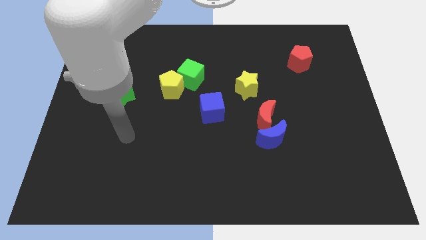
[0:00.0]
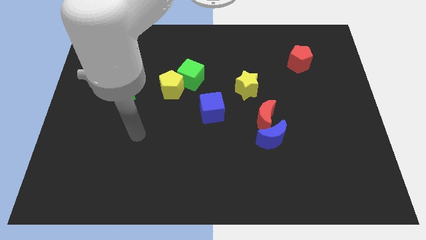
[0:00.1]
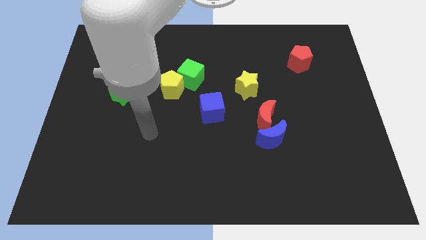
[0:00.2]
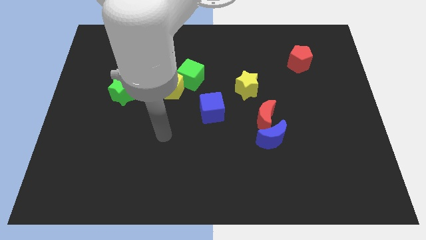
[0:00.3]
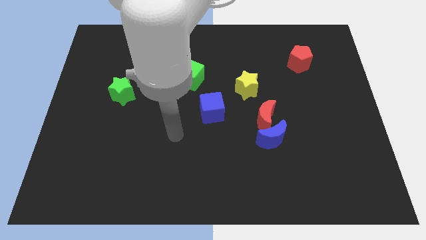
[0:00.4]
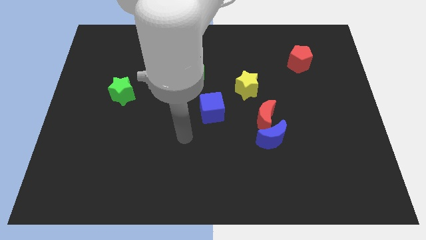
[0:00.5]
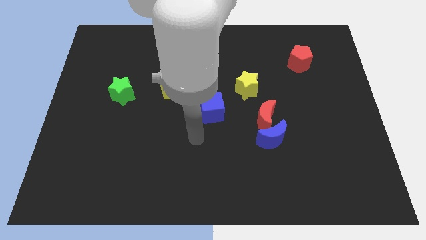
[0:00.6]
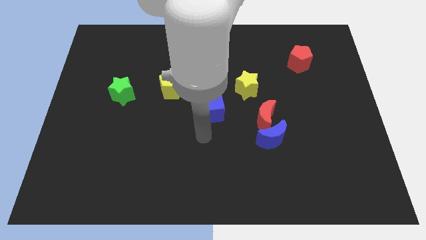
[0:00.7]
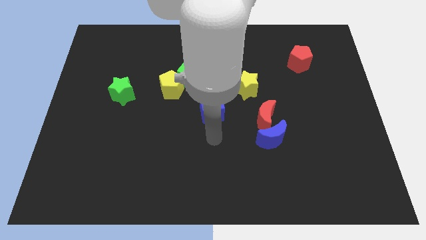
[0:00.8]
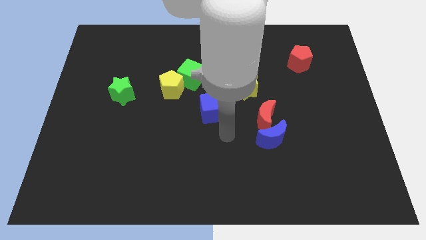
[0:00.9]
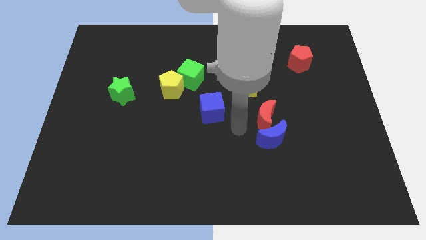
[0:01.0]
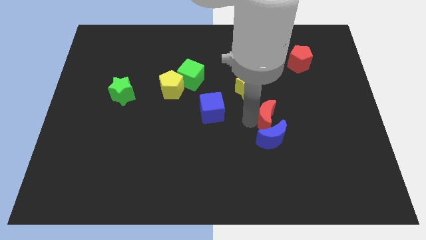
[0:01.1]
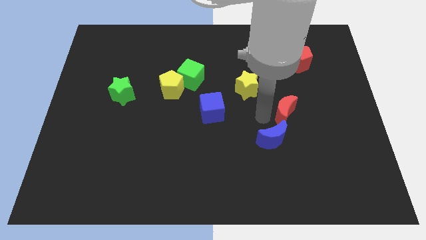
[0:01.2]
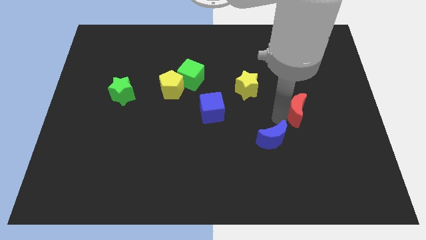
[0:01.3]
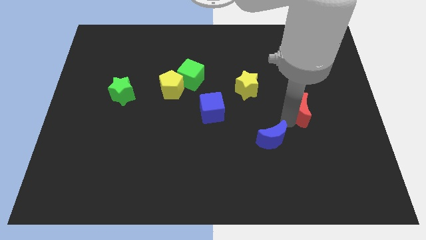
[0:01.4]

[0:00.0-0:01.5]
separate the blue moon from the red moon

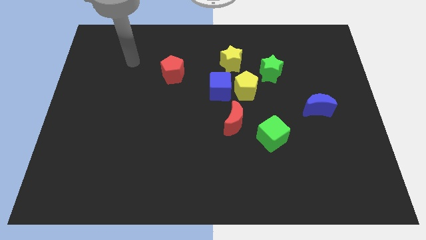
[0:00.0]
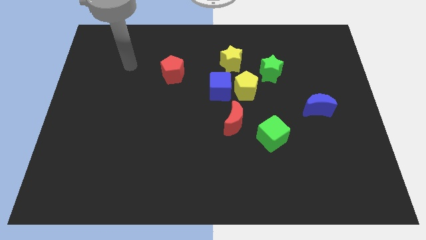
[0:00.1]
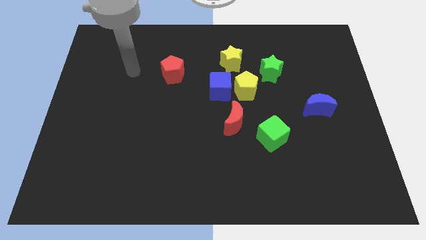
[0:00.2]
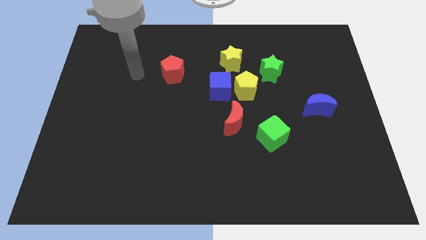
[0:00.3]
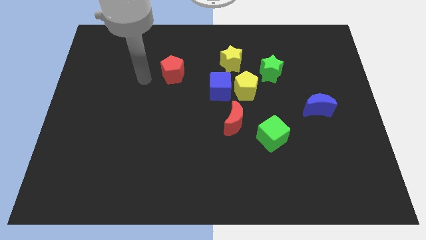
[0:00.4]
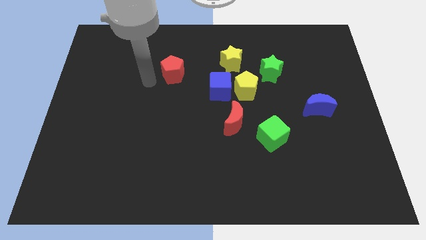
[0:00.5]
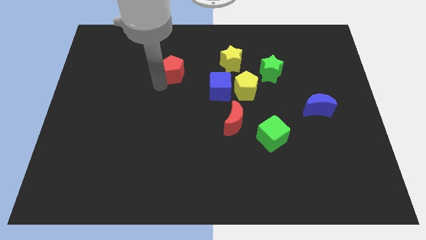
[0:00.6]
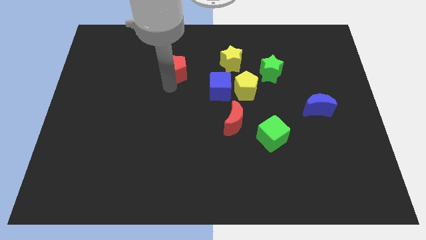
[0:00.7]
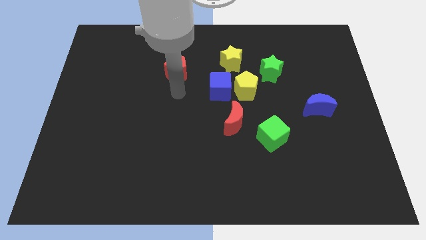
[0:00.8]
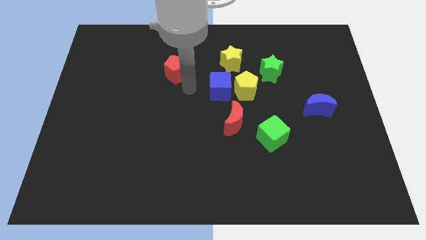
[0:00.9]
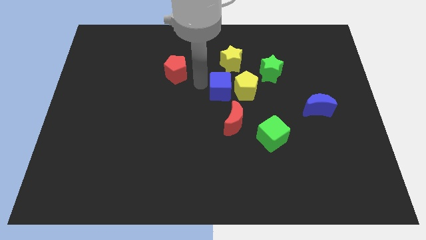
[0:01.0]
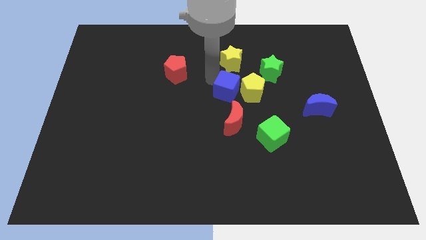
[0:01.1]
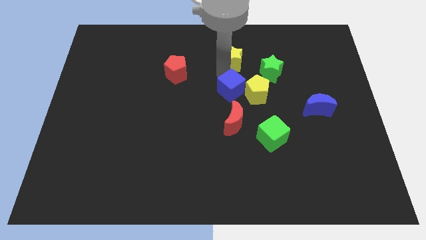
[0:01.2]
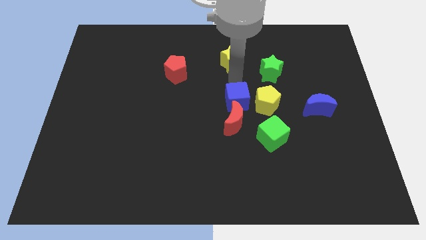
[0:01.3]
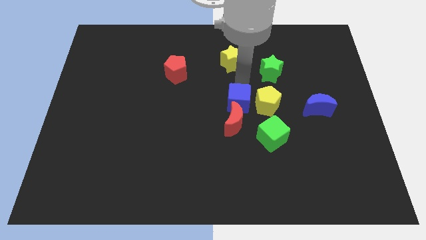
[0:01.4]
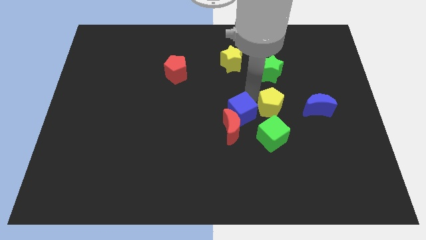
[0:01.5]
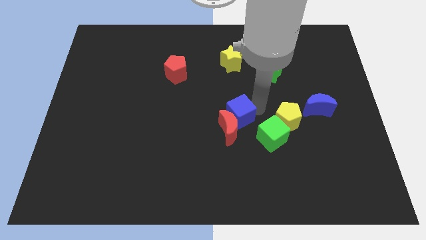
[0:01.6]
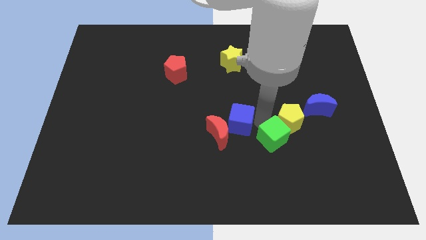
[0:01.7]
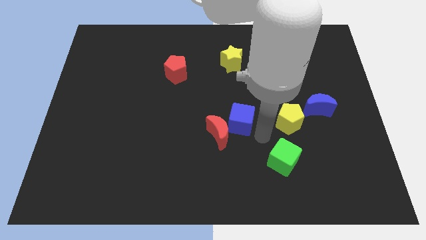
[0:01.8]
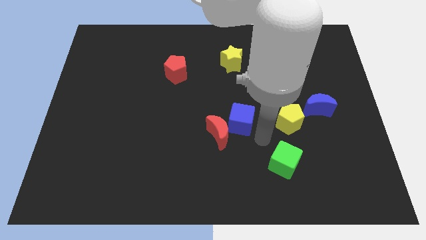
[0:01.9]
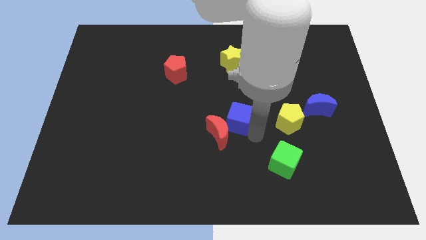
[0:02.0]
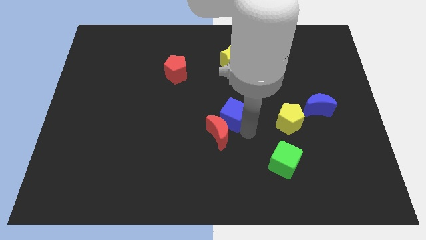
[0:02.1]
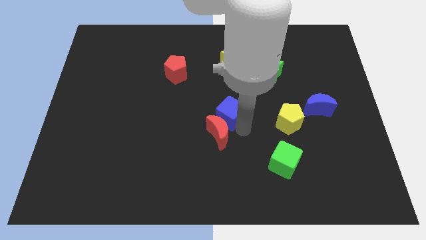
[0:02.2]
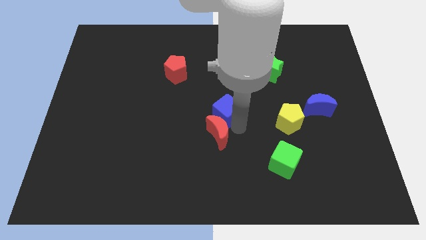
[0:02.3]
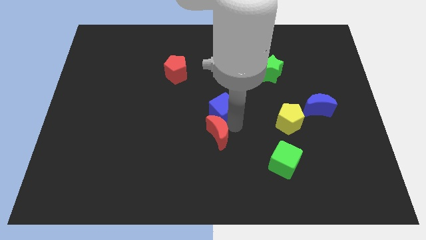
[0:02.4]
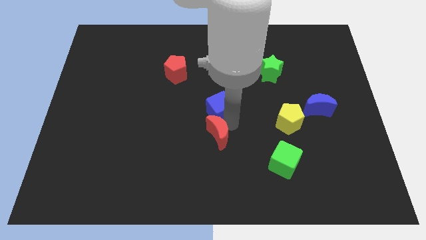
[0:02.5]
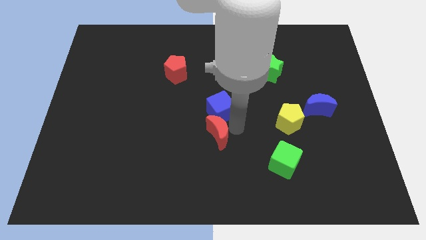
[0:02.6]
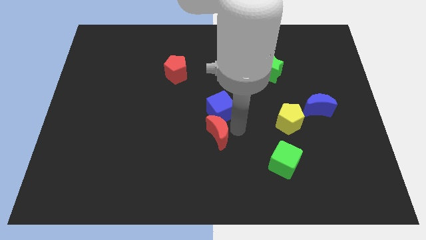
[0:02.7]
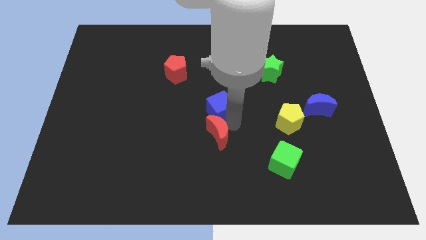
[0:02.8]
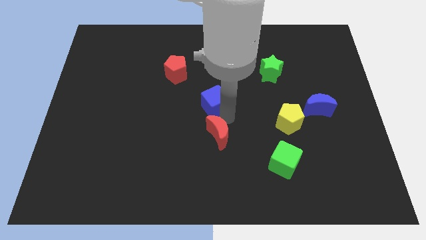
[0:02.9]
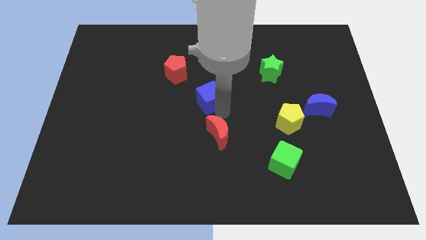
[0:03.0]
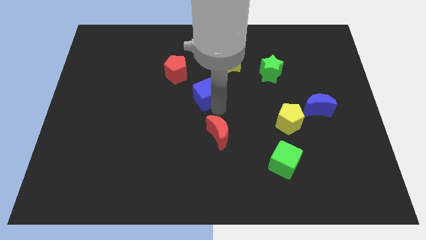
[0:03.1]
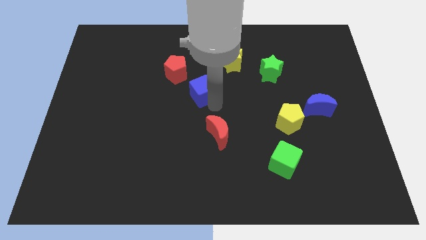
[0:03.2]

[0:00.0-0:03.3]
separate the blue cube from the group of blocks

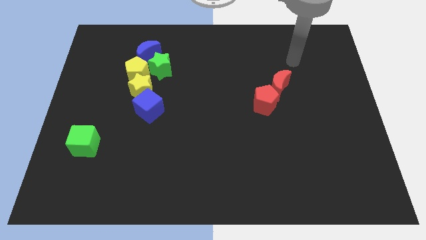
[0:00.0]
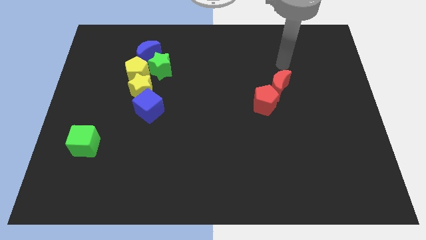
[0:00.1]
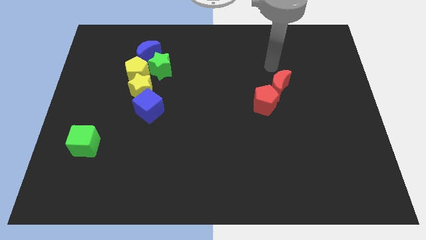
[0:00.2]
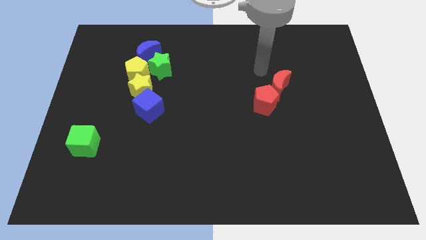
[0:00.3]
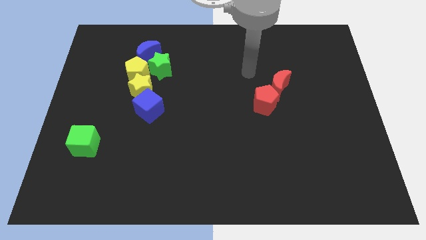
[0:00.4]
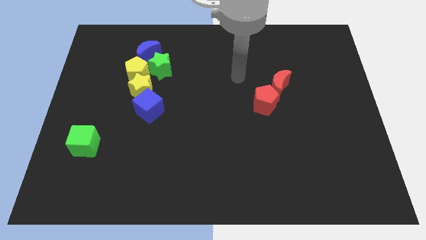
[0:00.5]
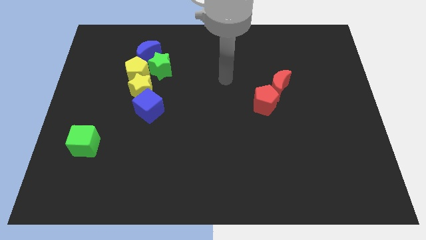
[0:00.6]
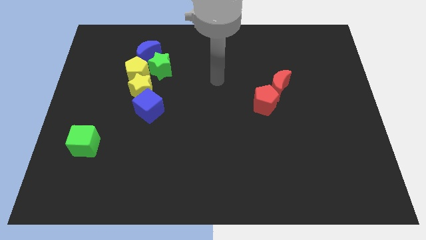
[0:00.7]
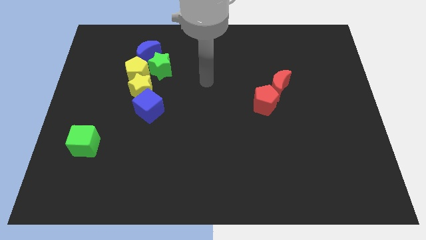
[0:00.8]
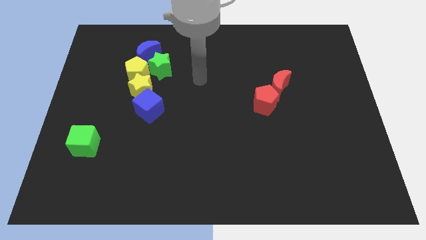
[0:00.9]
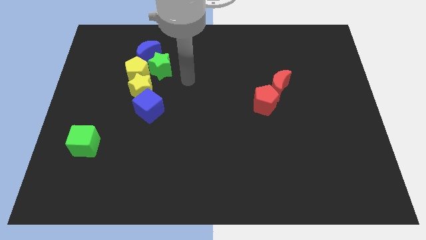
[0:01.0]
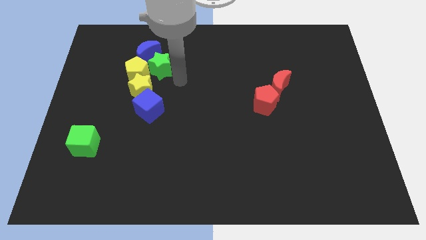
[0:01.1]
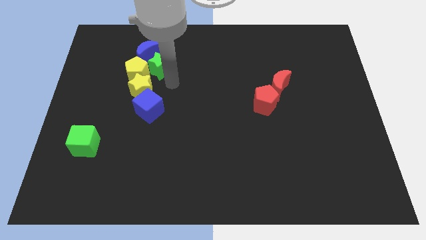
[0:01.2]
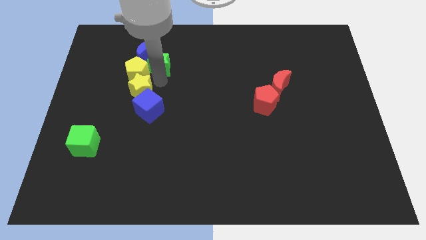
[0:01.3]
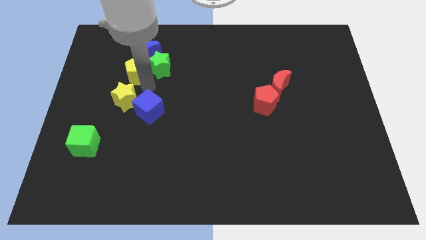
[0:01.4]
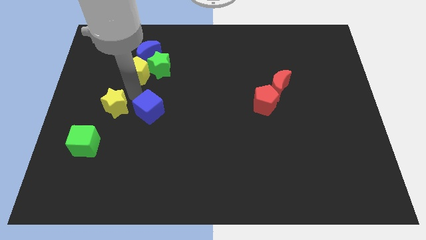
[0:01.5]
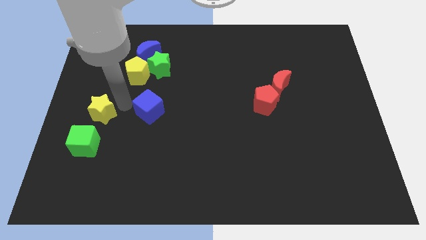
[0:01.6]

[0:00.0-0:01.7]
separate the blue cube from the yellow star

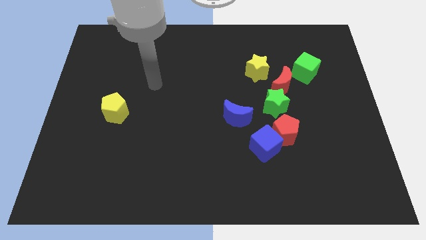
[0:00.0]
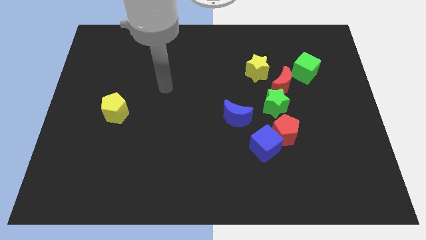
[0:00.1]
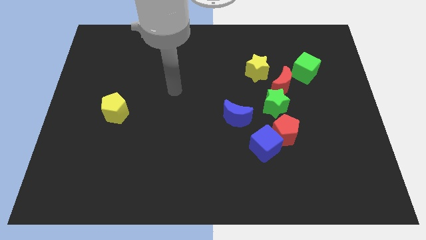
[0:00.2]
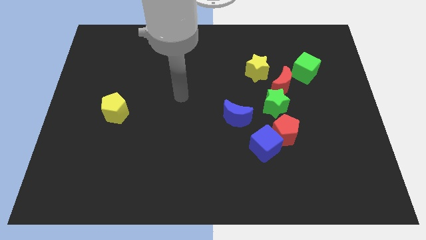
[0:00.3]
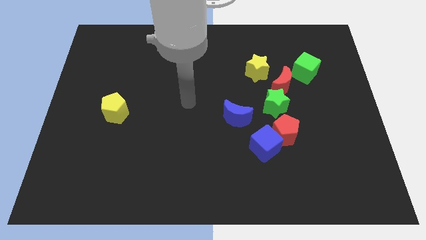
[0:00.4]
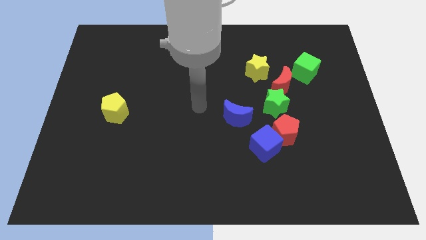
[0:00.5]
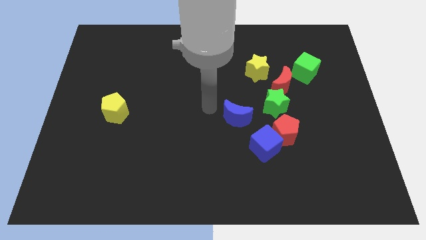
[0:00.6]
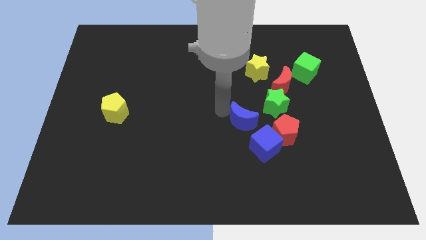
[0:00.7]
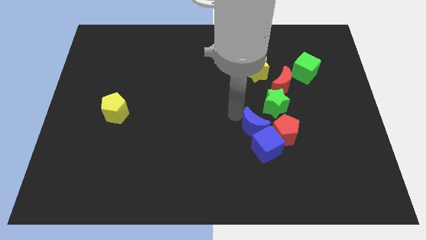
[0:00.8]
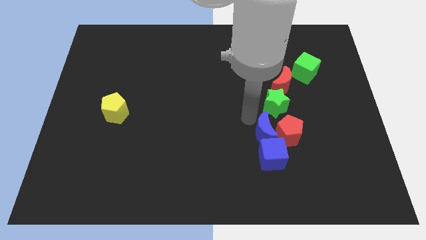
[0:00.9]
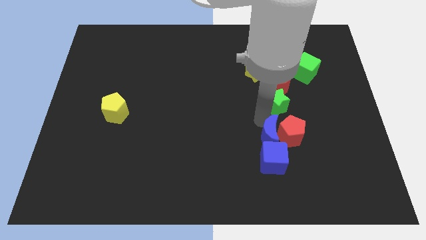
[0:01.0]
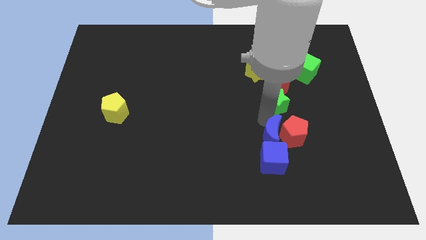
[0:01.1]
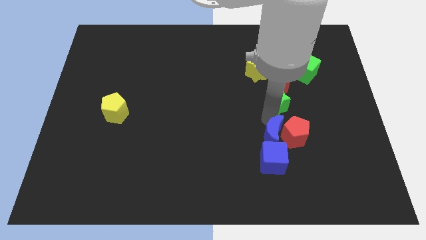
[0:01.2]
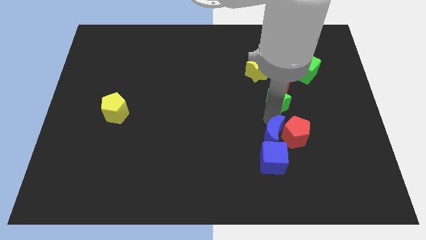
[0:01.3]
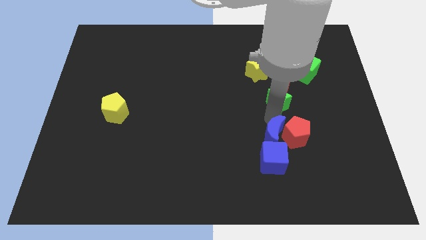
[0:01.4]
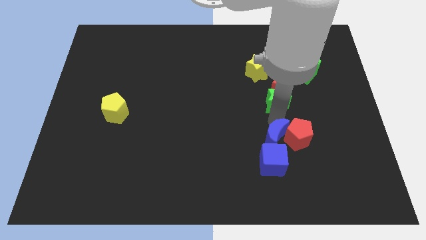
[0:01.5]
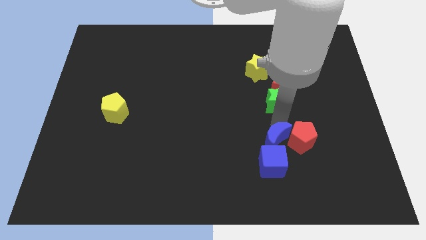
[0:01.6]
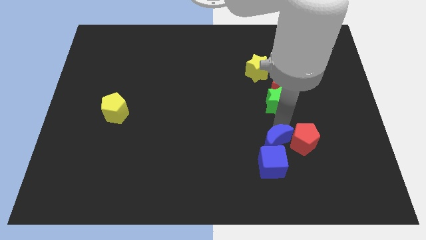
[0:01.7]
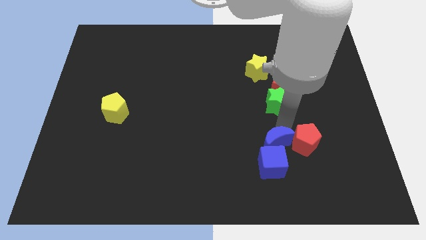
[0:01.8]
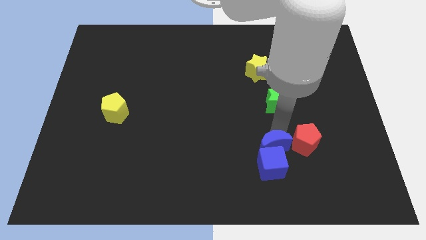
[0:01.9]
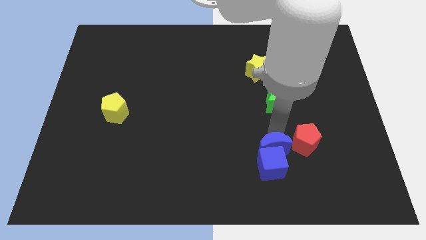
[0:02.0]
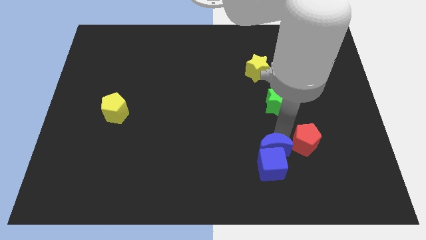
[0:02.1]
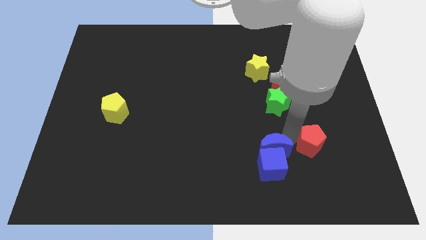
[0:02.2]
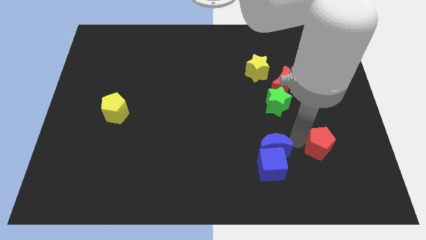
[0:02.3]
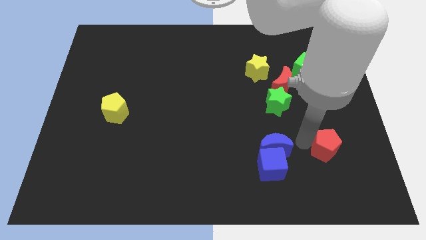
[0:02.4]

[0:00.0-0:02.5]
move the red pentagon away from the blue cube and green star

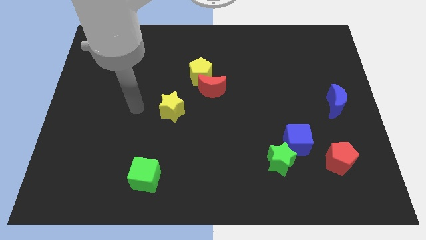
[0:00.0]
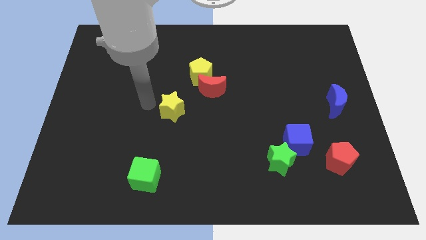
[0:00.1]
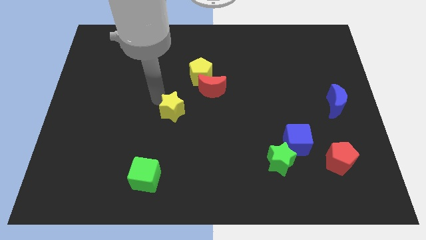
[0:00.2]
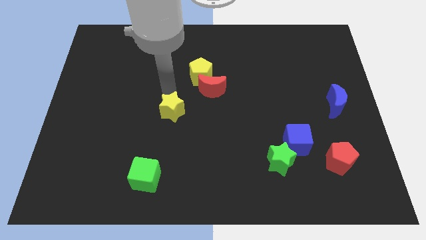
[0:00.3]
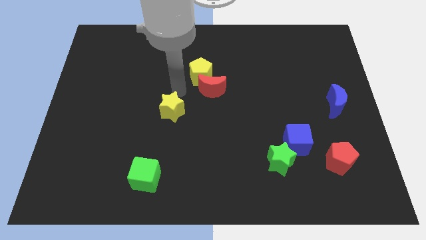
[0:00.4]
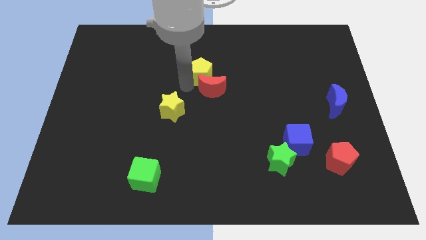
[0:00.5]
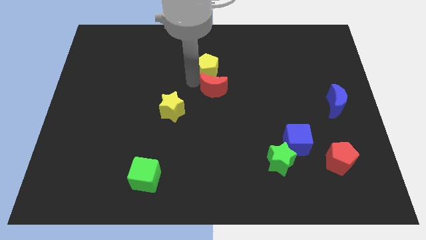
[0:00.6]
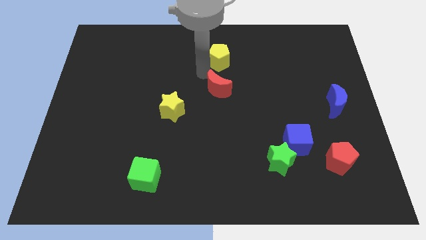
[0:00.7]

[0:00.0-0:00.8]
pull the red moon apart from the yellow pentagon
